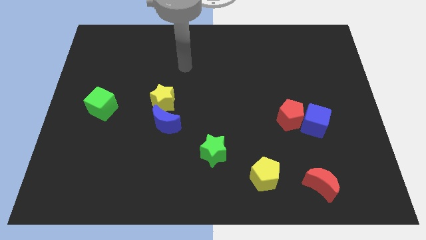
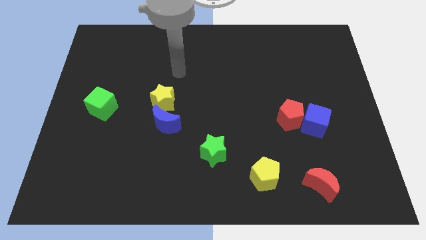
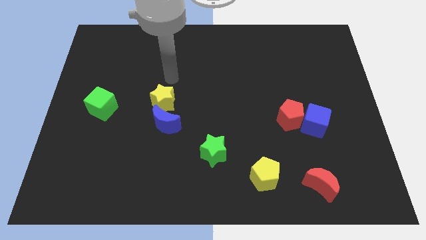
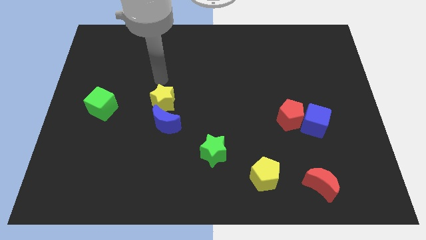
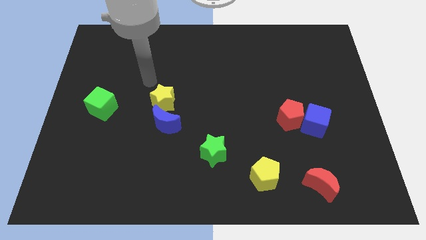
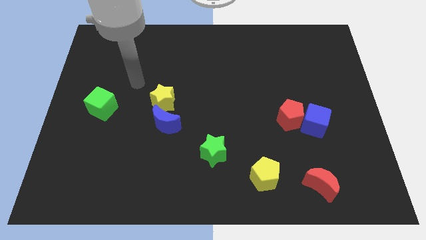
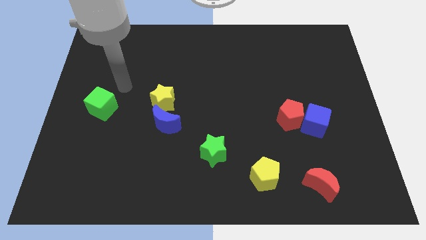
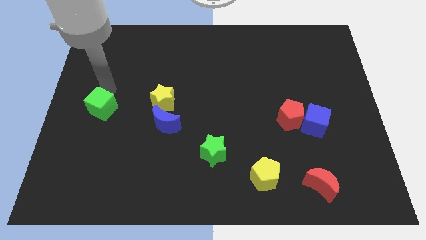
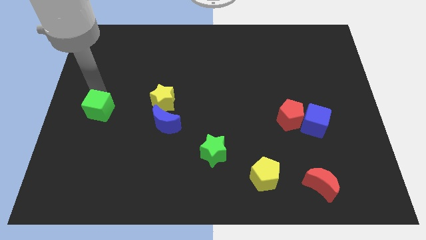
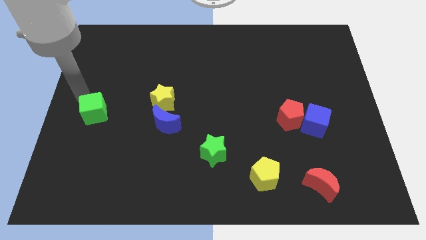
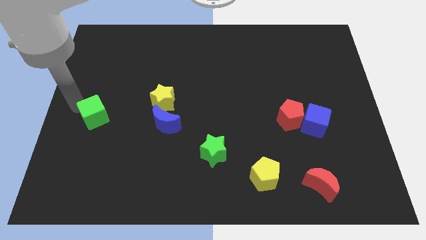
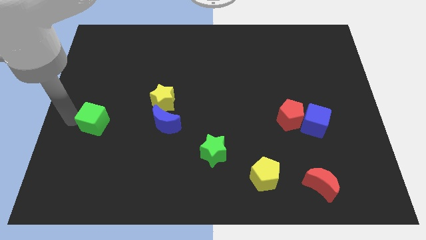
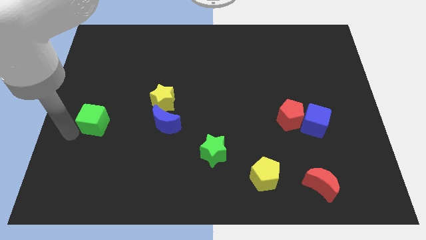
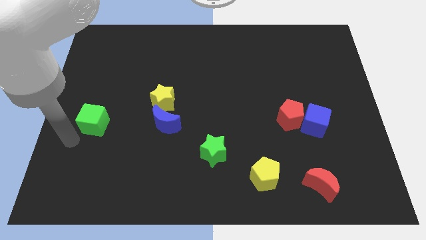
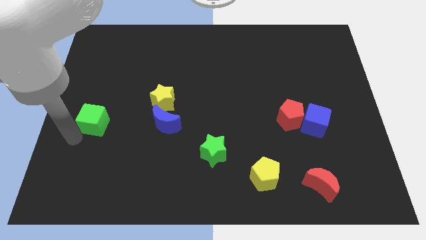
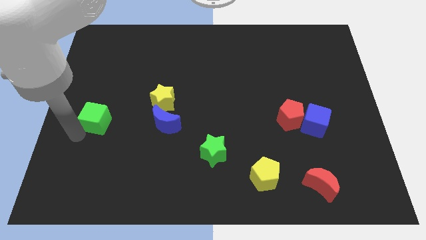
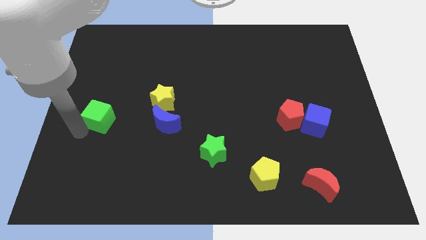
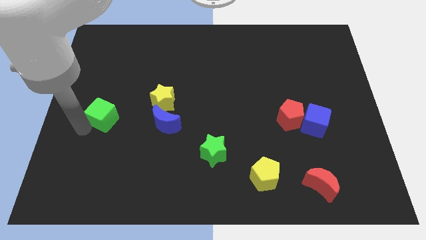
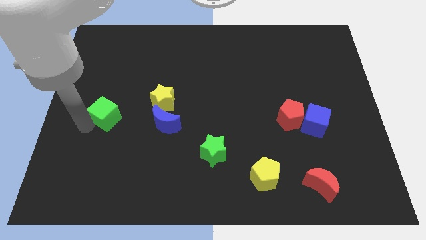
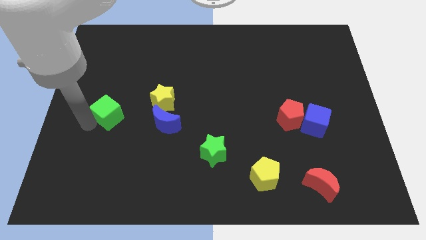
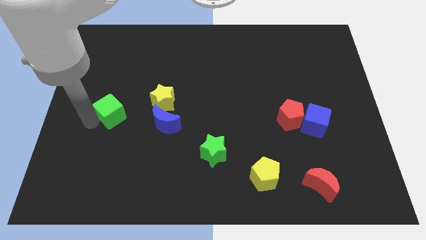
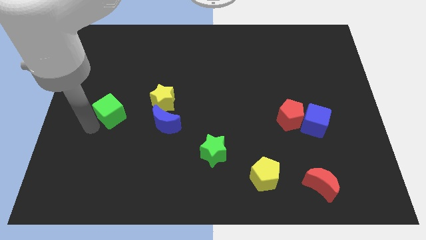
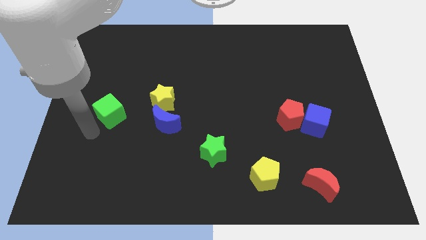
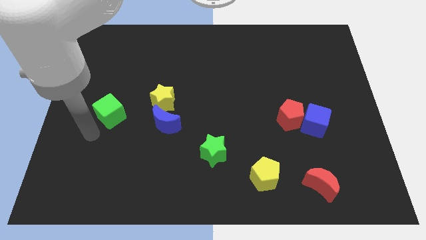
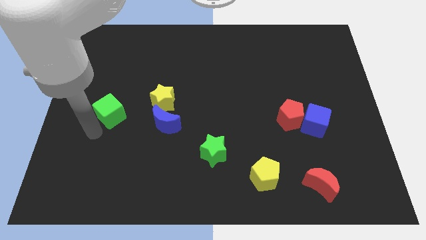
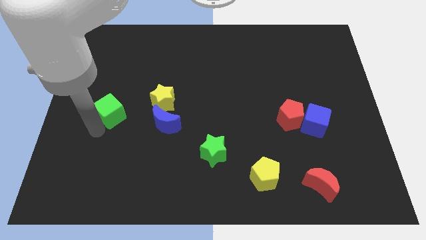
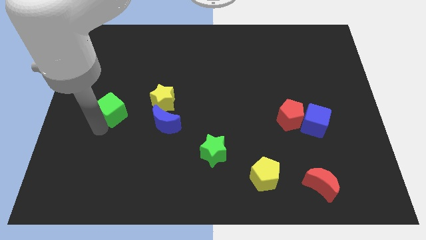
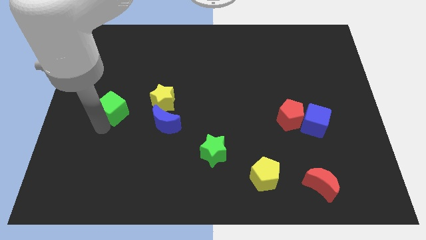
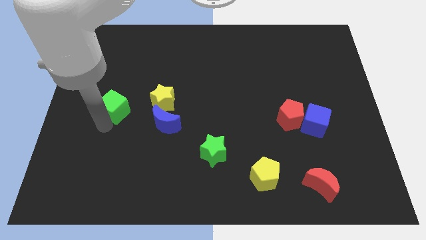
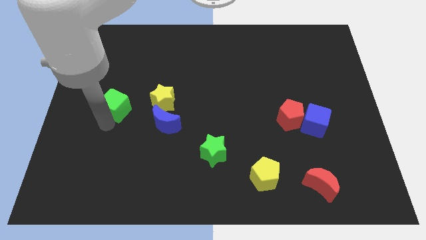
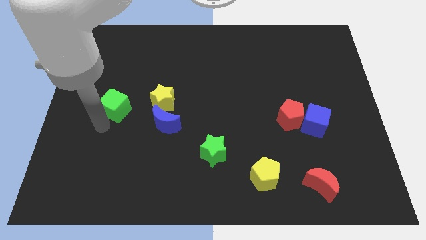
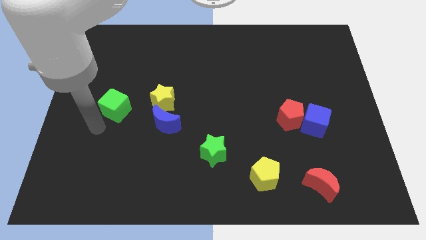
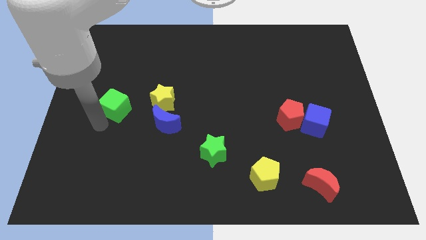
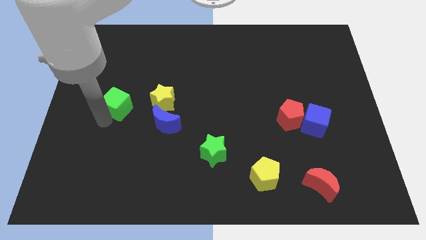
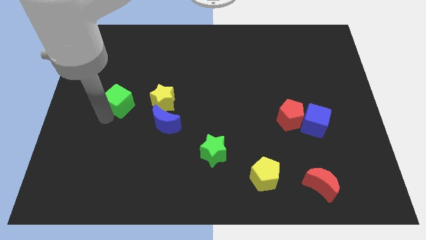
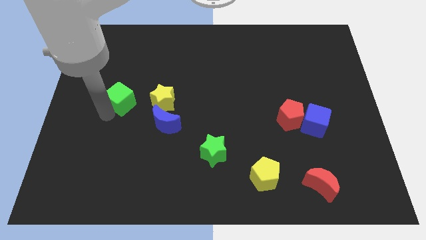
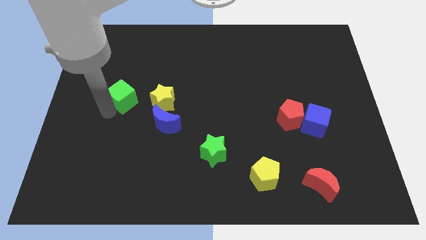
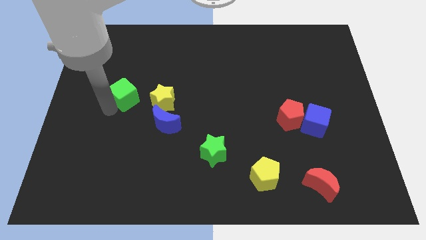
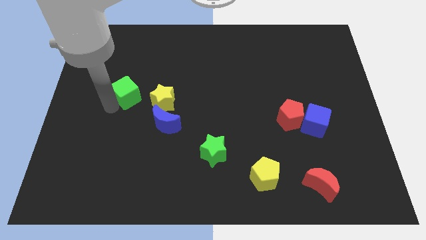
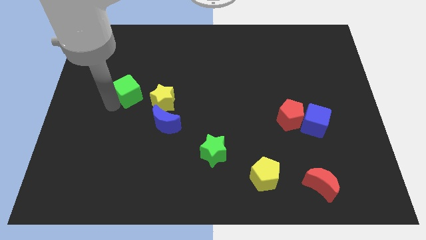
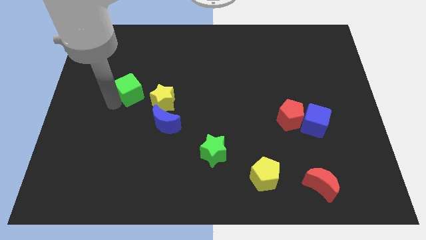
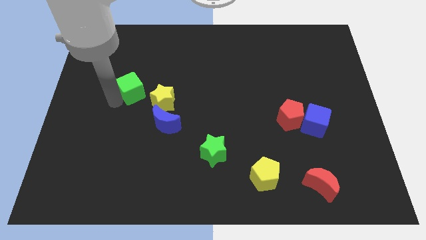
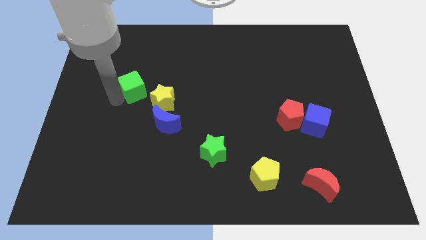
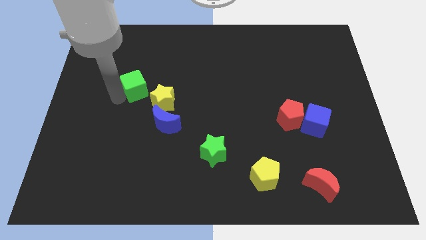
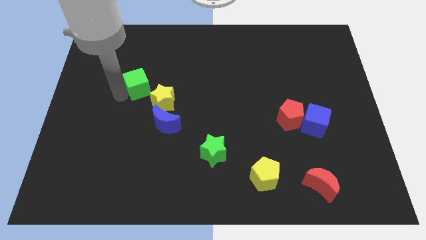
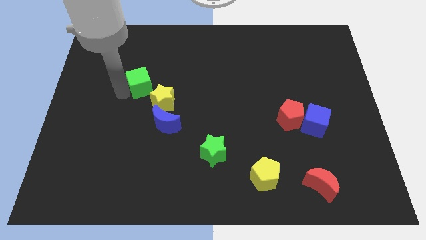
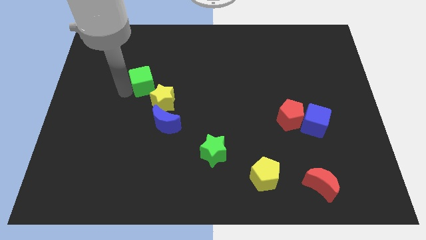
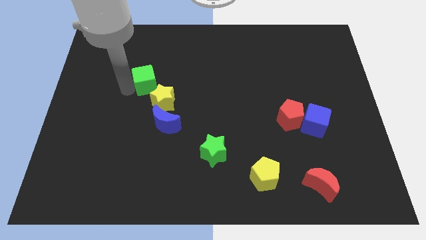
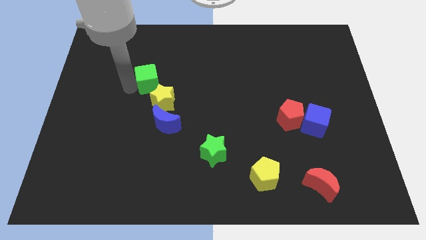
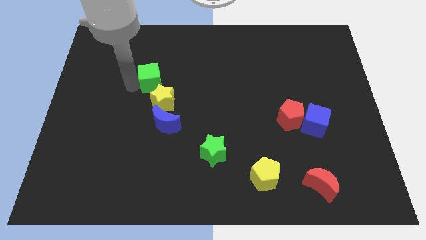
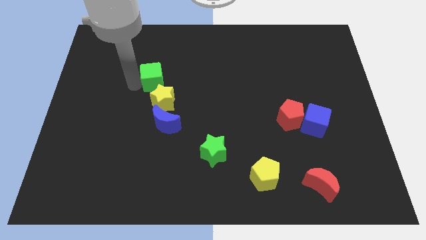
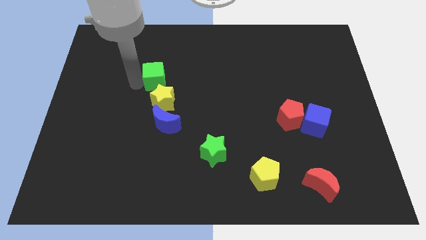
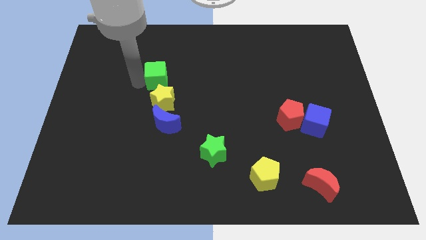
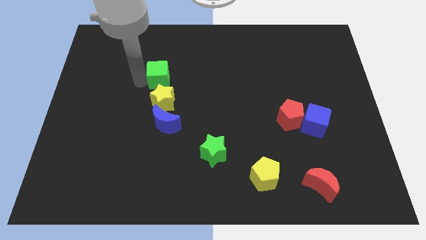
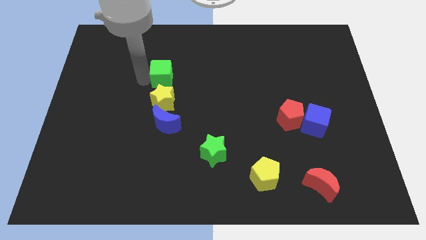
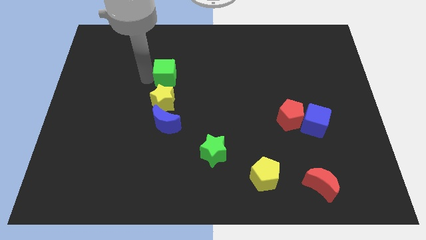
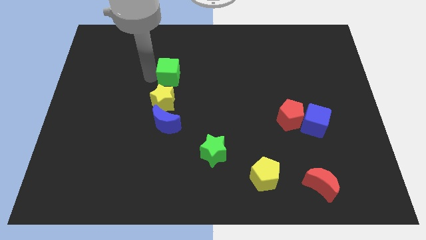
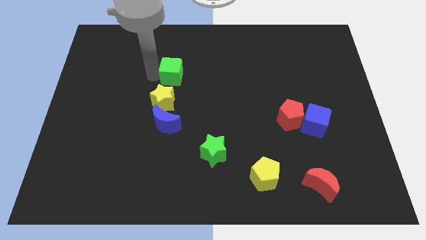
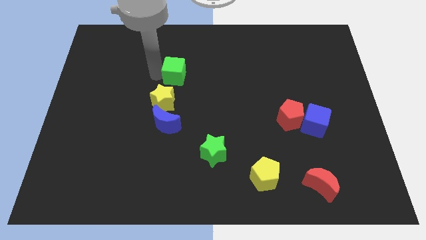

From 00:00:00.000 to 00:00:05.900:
move the green cube to the center

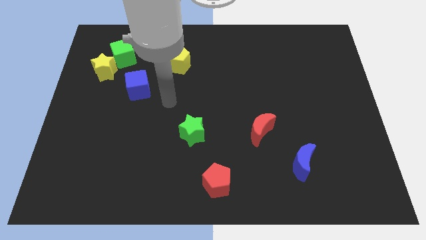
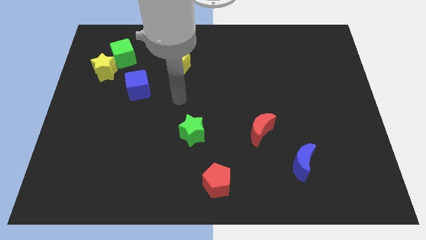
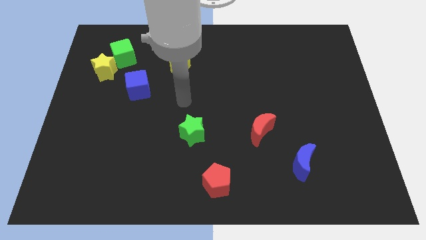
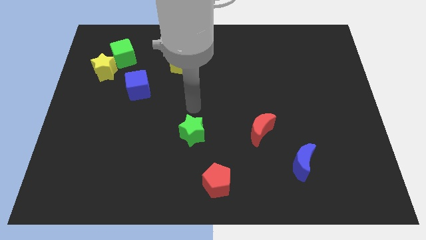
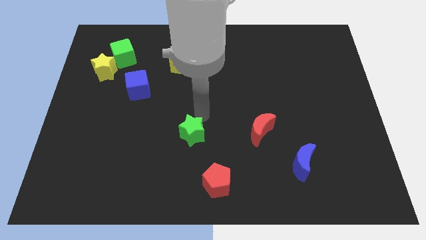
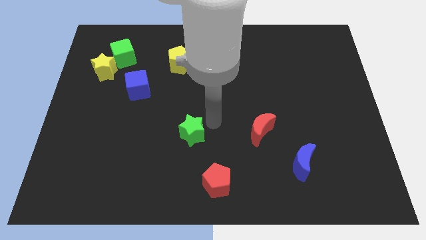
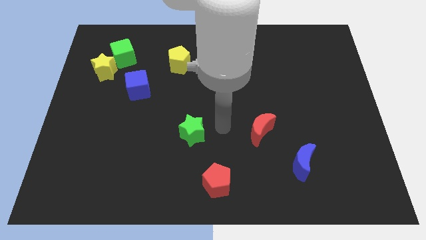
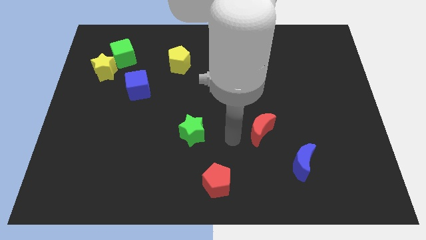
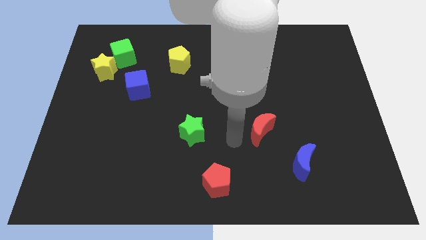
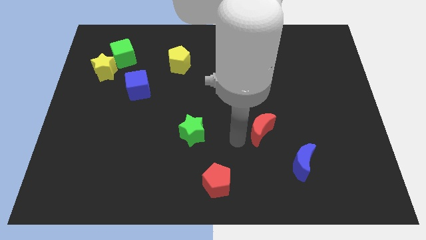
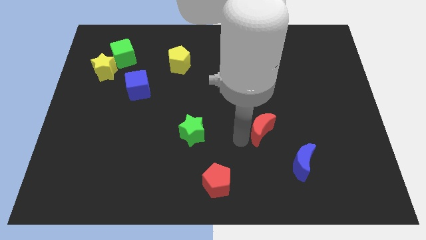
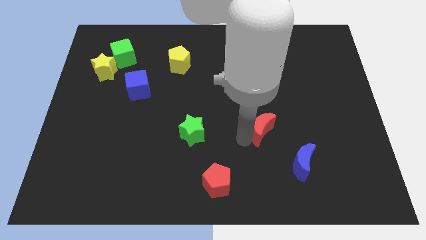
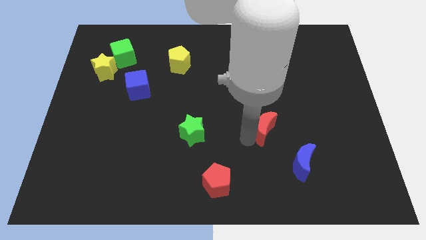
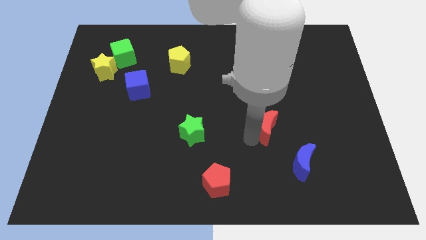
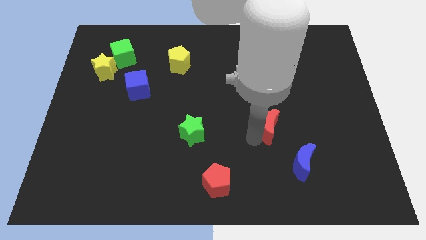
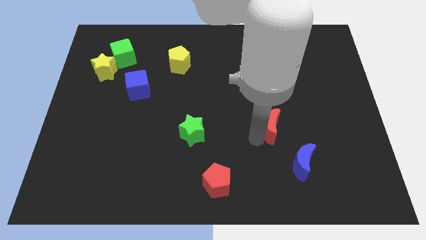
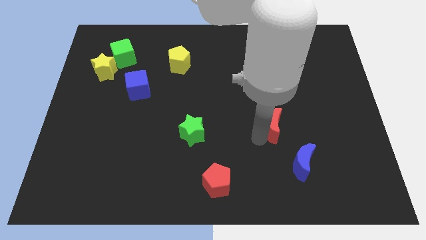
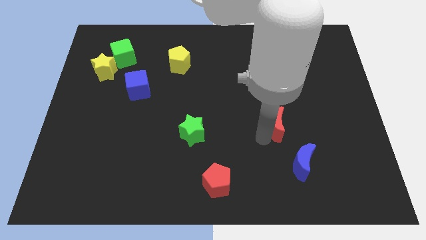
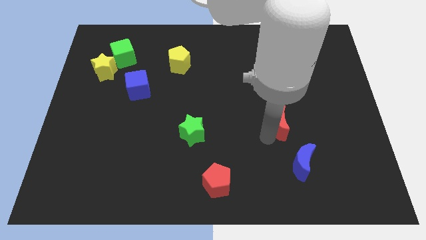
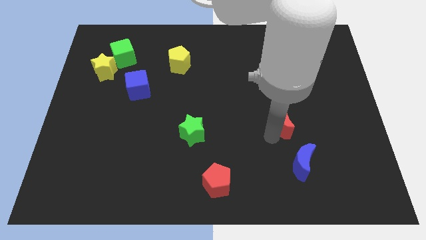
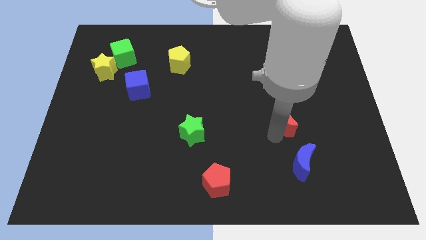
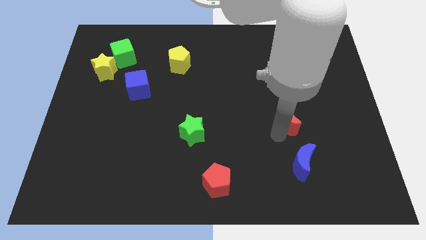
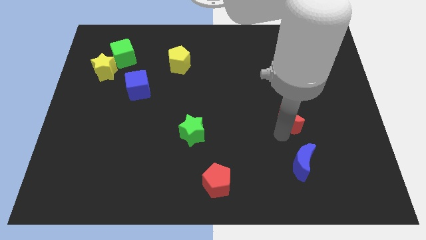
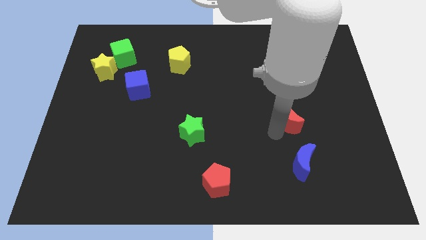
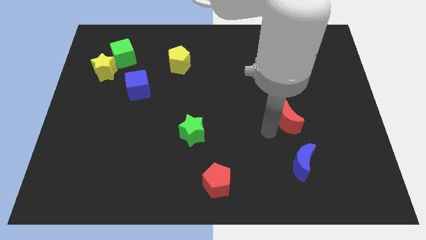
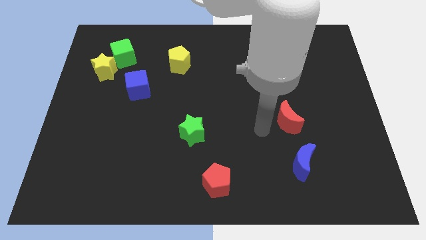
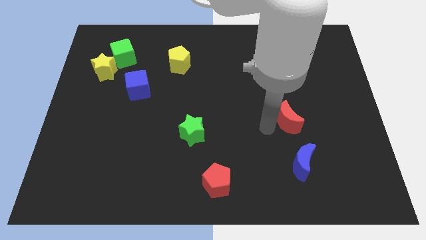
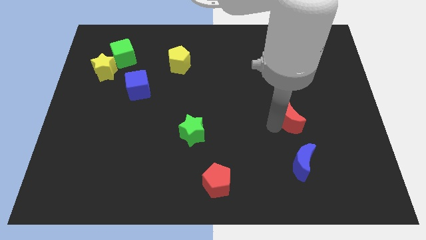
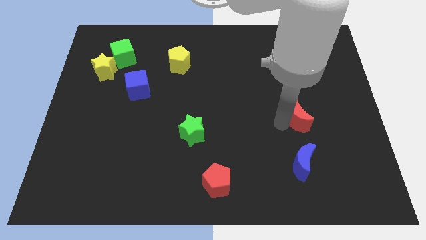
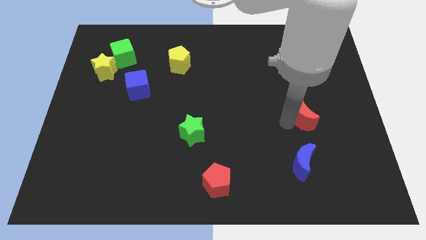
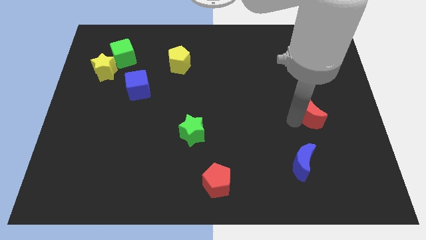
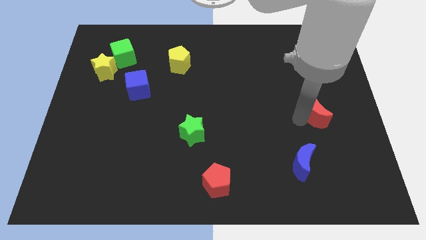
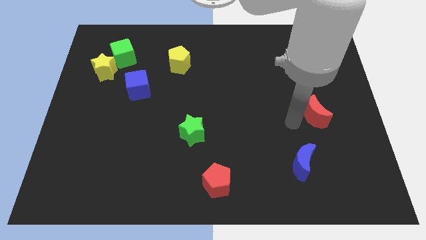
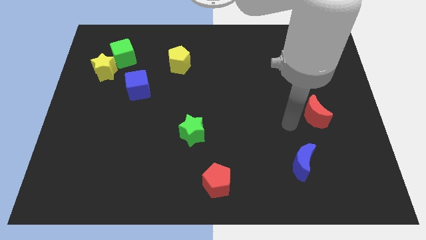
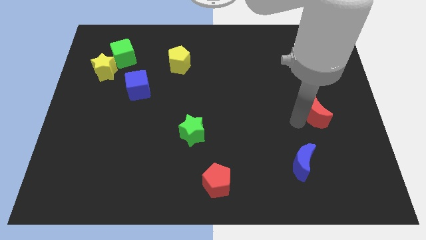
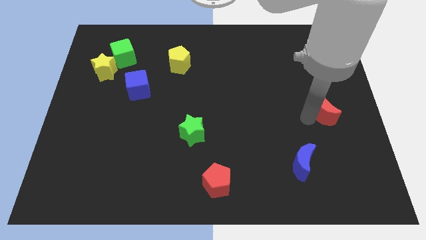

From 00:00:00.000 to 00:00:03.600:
put the red moon to the right side of the board
